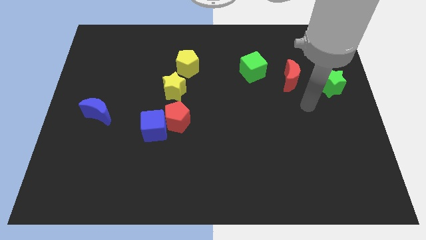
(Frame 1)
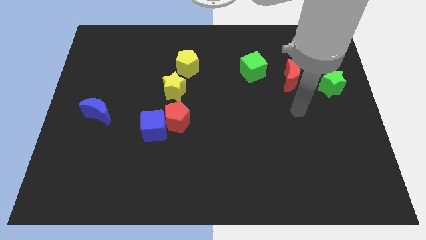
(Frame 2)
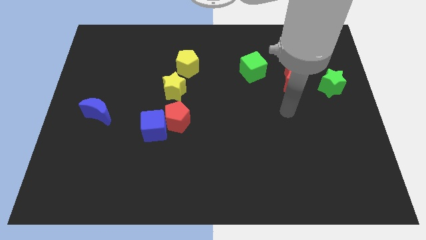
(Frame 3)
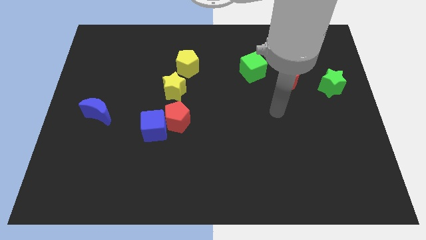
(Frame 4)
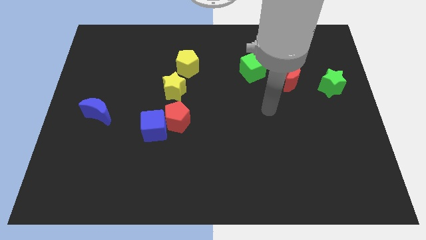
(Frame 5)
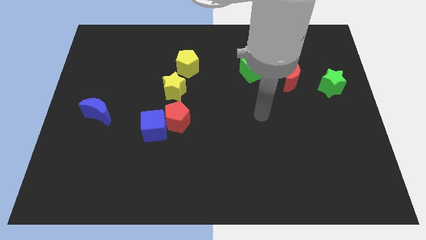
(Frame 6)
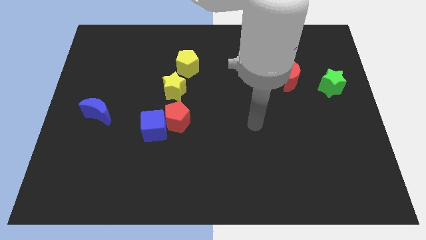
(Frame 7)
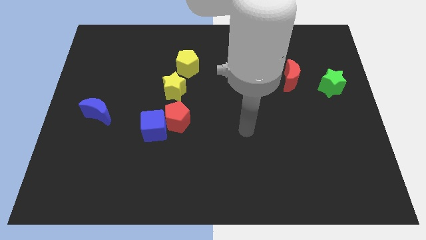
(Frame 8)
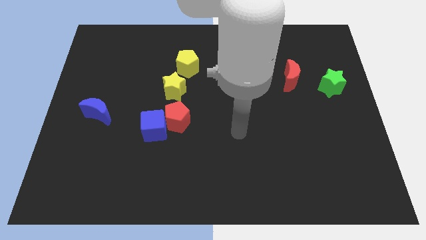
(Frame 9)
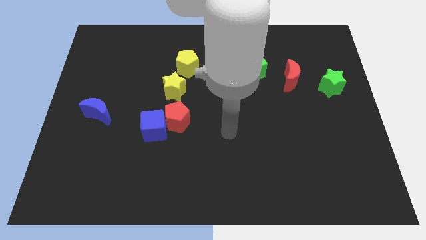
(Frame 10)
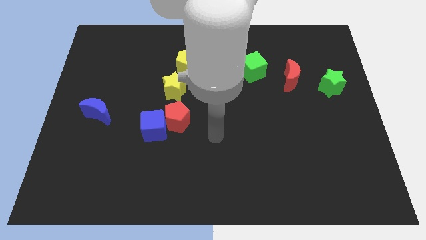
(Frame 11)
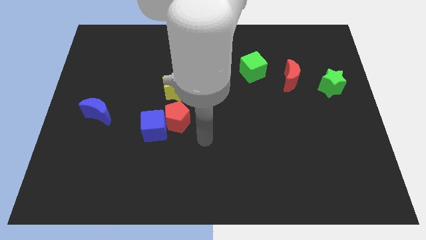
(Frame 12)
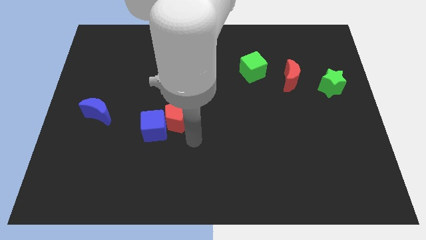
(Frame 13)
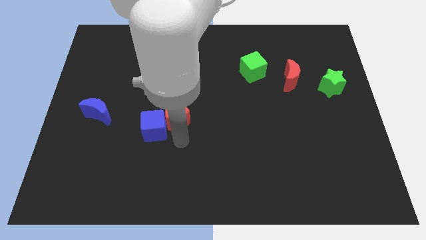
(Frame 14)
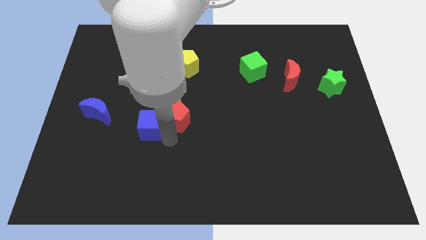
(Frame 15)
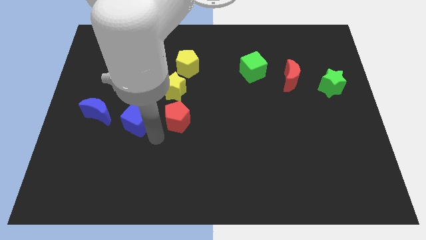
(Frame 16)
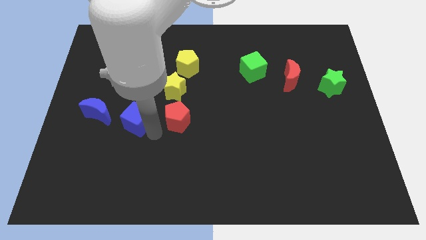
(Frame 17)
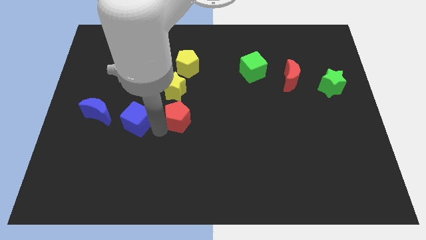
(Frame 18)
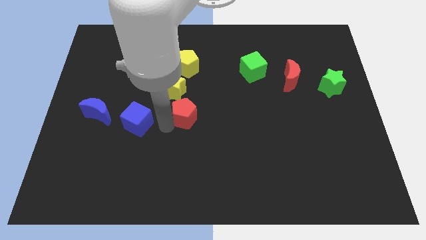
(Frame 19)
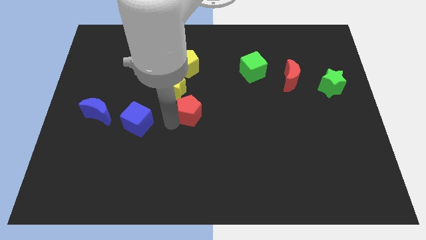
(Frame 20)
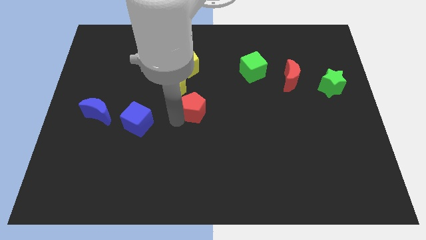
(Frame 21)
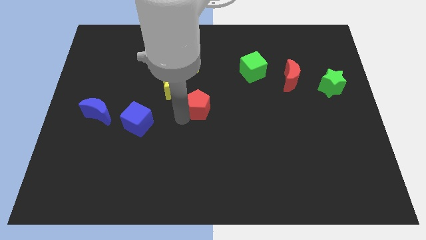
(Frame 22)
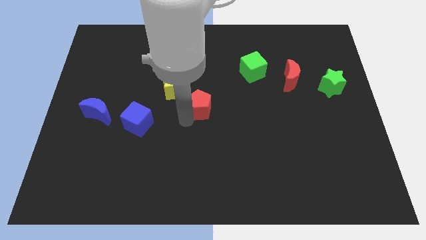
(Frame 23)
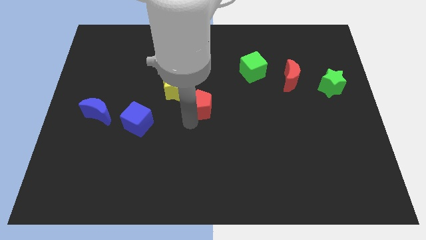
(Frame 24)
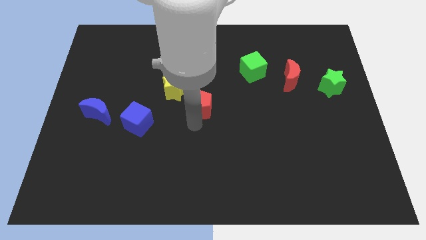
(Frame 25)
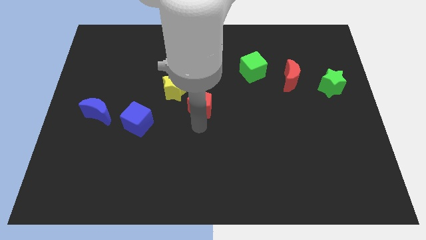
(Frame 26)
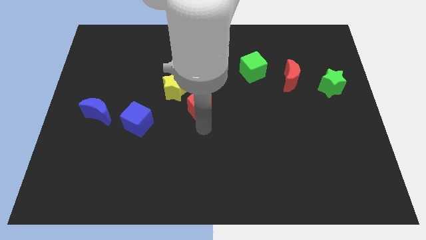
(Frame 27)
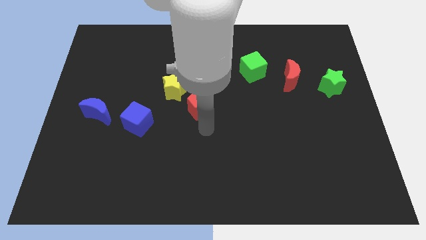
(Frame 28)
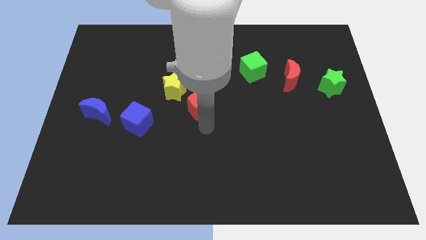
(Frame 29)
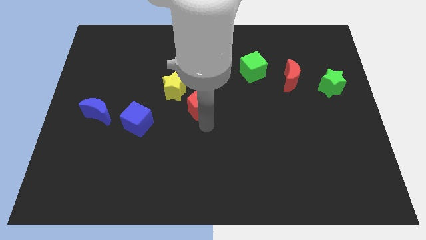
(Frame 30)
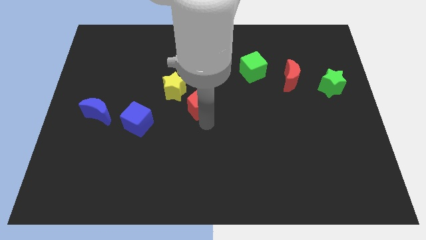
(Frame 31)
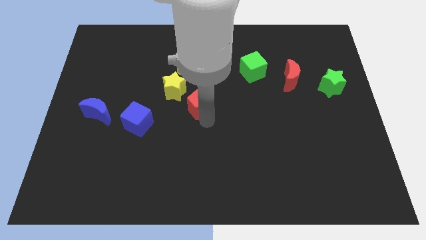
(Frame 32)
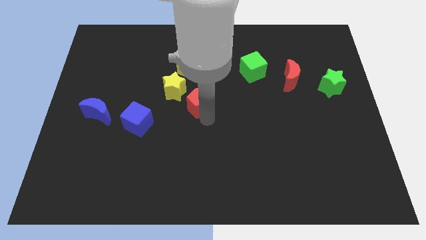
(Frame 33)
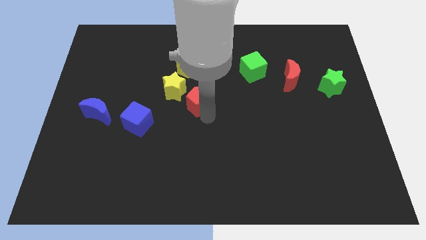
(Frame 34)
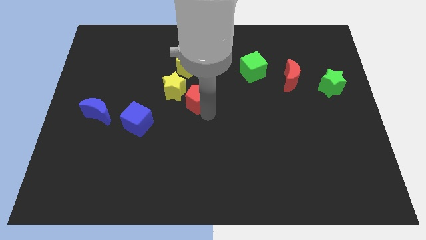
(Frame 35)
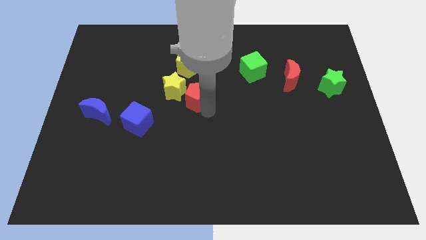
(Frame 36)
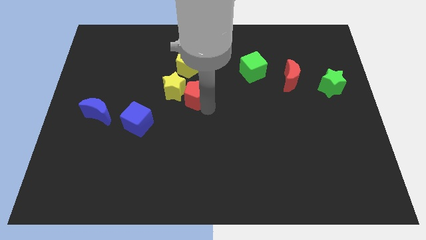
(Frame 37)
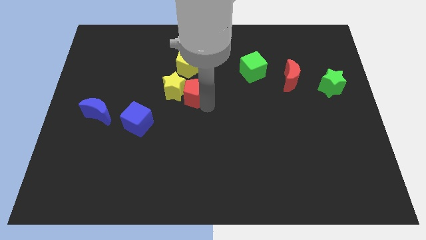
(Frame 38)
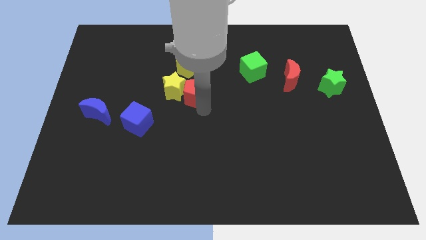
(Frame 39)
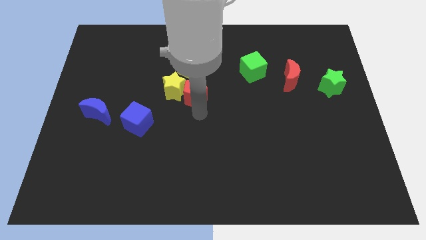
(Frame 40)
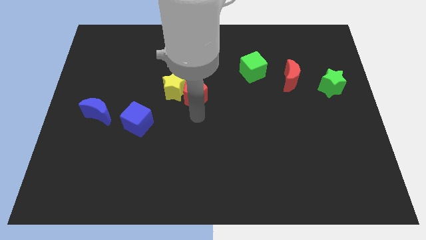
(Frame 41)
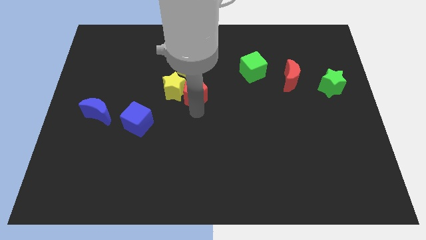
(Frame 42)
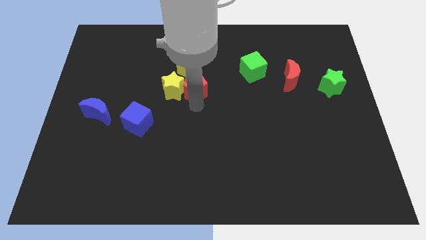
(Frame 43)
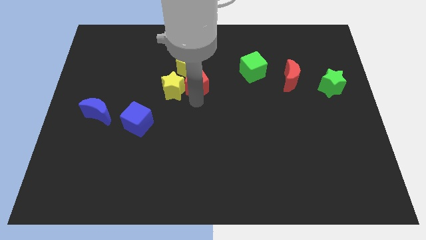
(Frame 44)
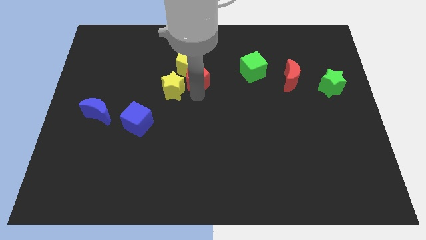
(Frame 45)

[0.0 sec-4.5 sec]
put the red pentagon towards the yellow pentagon

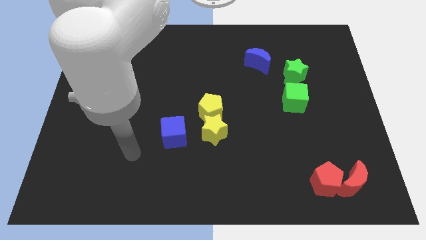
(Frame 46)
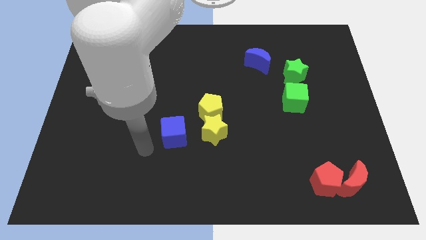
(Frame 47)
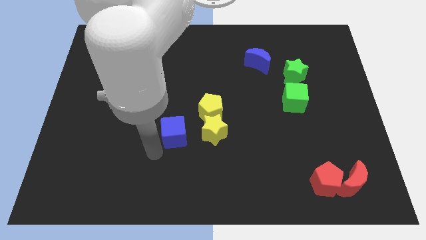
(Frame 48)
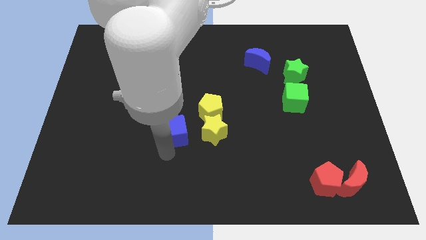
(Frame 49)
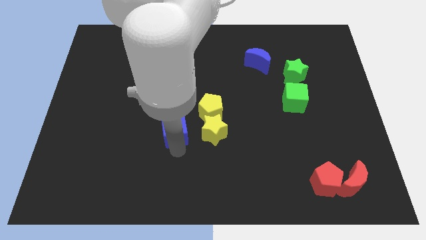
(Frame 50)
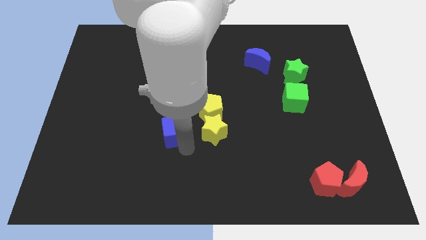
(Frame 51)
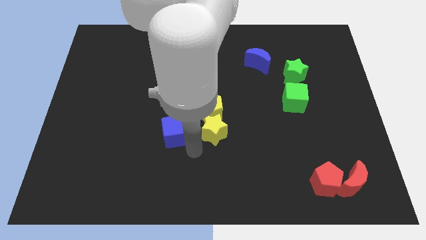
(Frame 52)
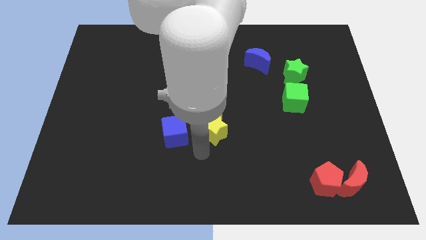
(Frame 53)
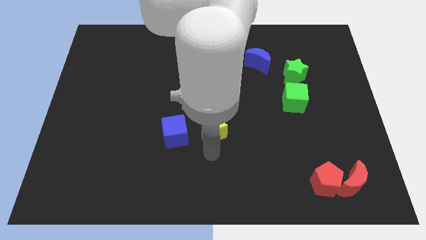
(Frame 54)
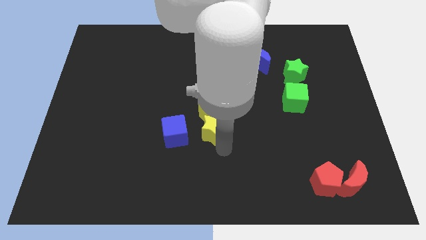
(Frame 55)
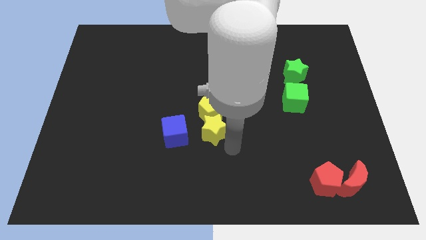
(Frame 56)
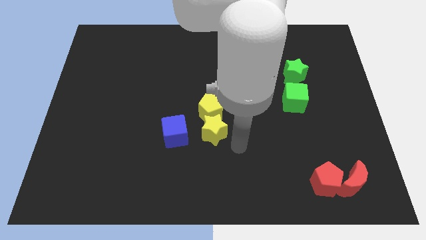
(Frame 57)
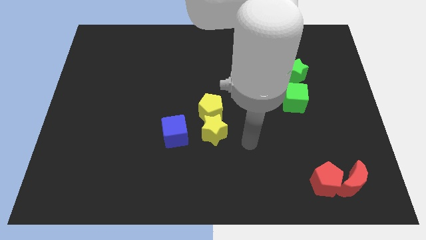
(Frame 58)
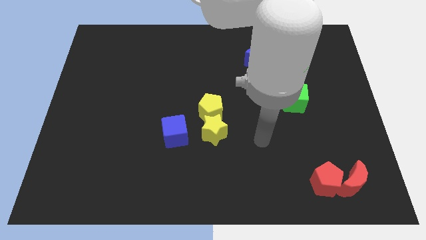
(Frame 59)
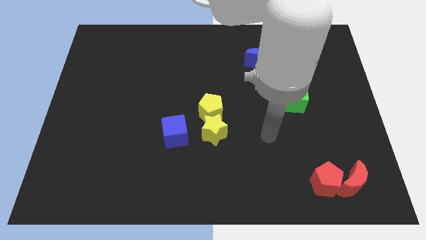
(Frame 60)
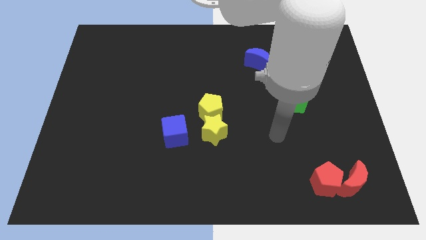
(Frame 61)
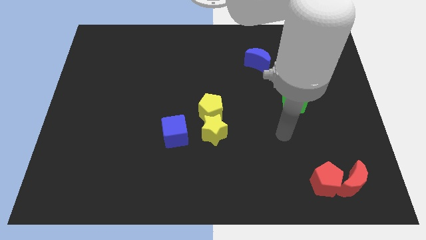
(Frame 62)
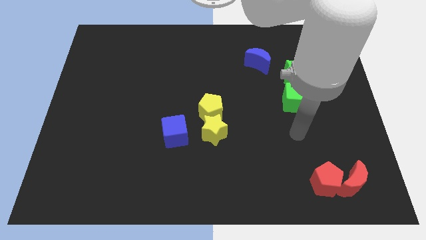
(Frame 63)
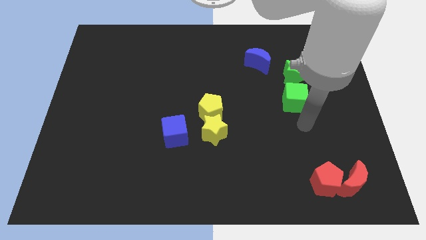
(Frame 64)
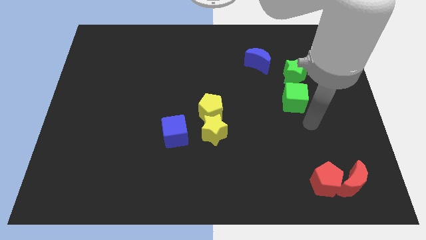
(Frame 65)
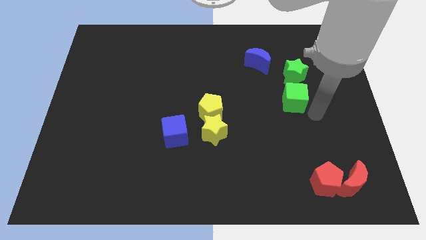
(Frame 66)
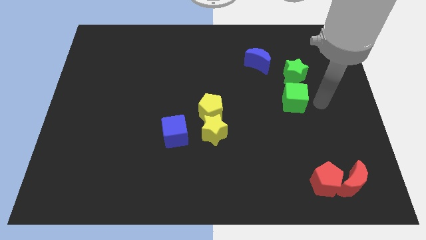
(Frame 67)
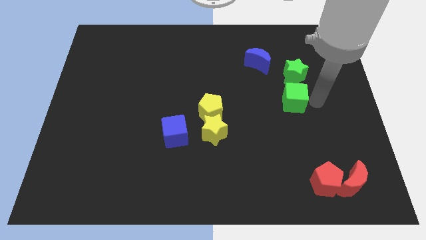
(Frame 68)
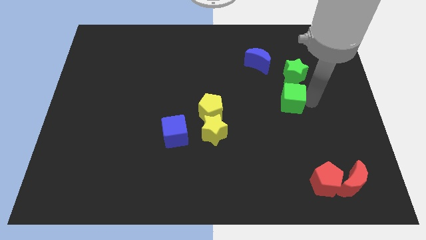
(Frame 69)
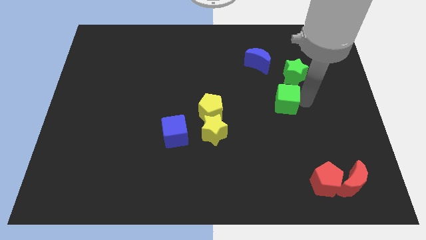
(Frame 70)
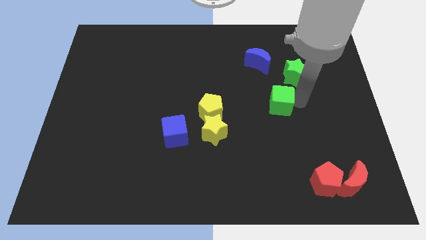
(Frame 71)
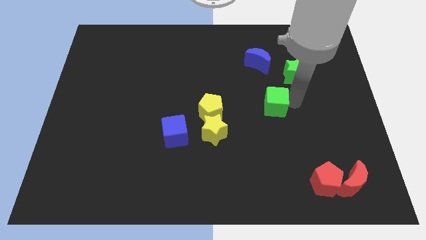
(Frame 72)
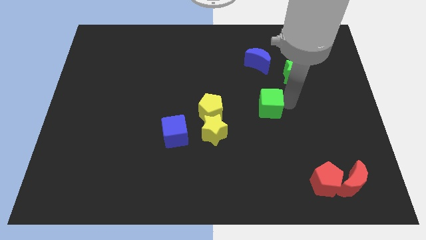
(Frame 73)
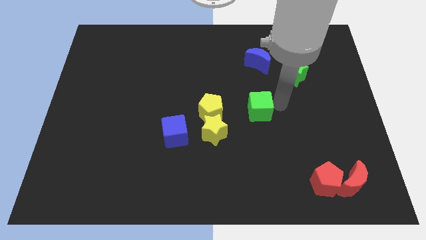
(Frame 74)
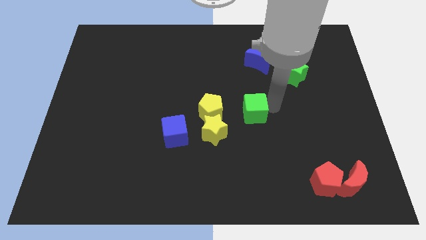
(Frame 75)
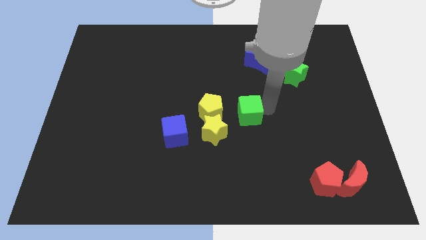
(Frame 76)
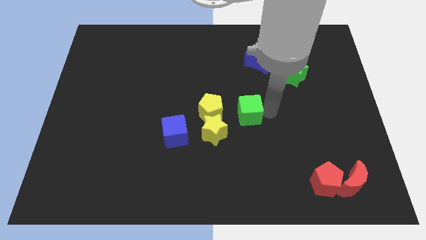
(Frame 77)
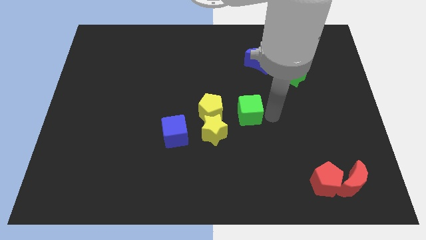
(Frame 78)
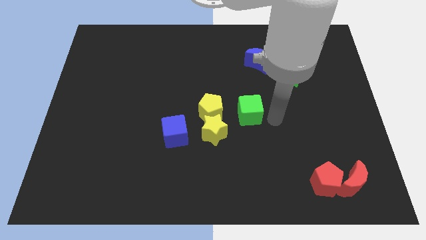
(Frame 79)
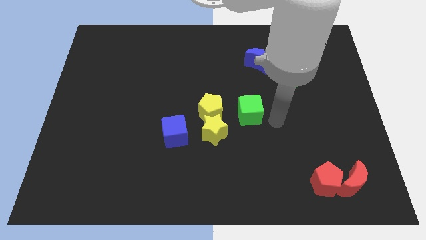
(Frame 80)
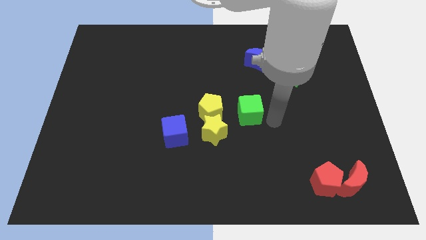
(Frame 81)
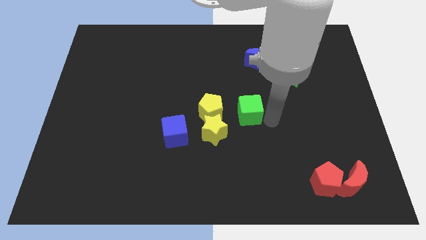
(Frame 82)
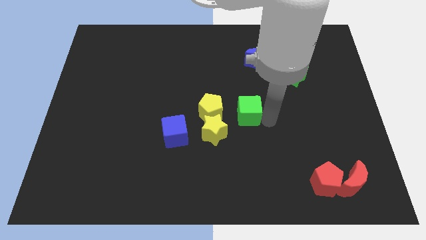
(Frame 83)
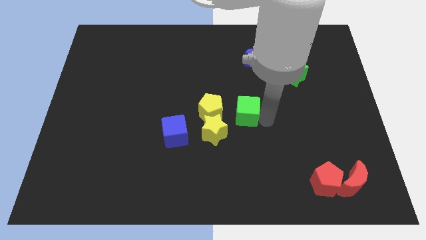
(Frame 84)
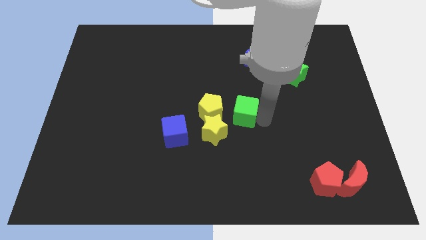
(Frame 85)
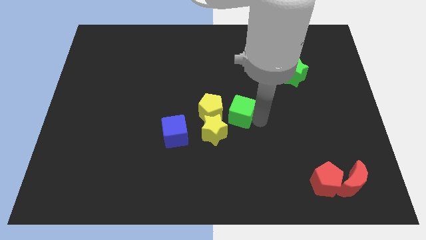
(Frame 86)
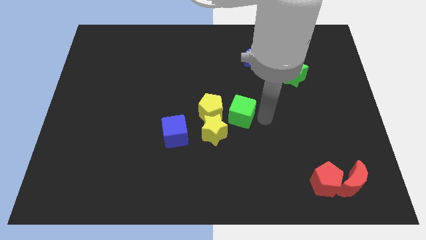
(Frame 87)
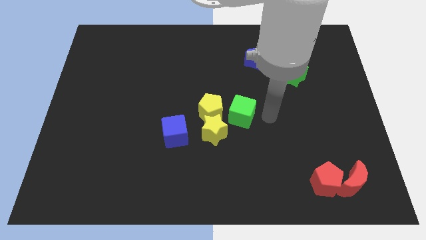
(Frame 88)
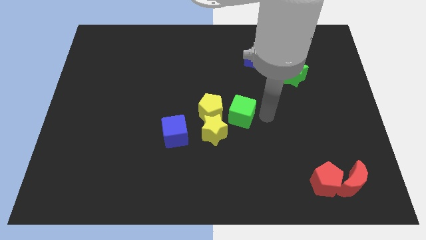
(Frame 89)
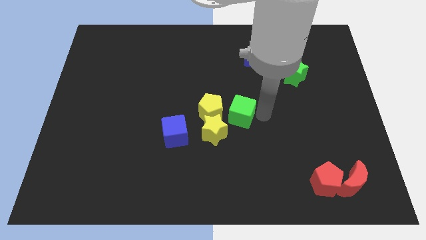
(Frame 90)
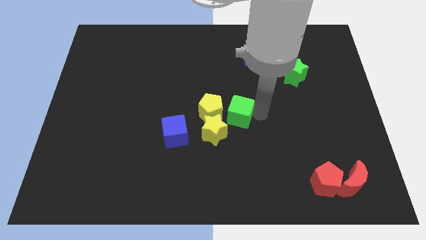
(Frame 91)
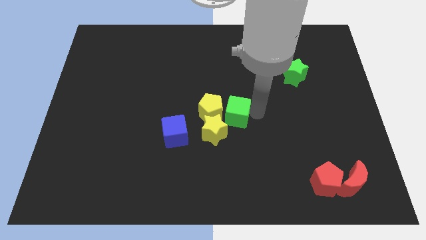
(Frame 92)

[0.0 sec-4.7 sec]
slide the green cube towards the yellow pentagon
